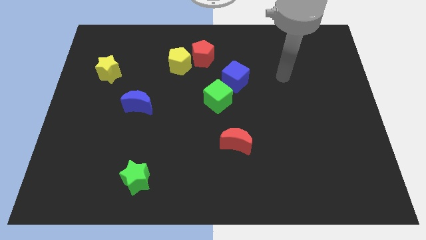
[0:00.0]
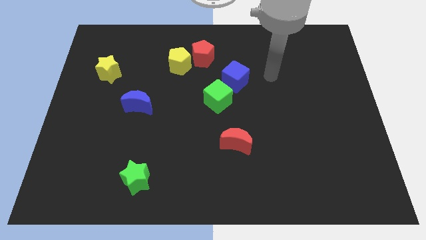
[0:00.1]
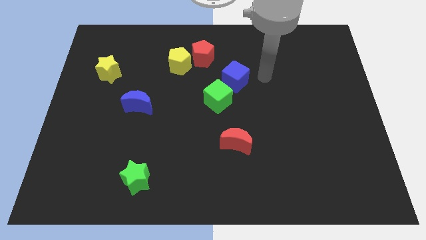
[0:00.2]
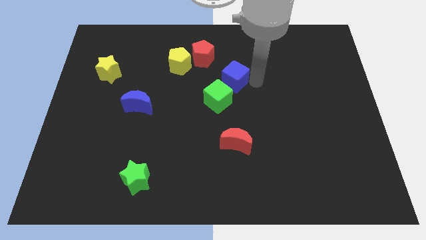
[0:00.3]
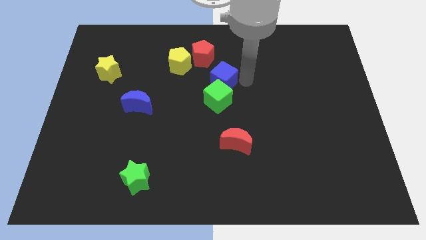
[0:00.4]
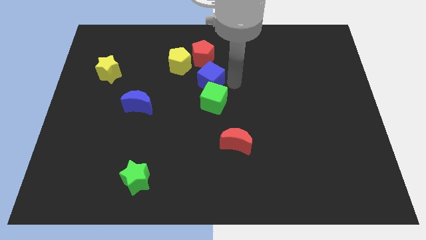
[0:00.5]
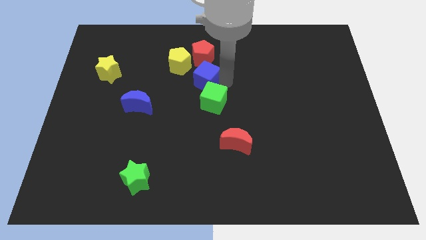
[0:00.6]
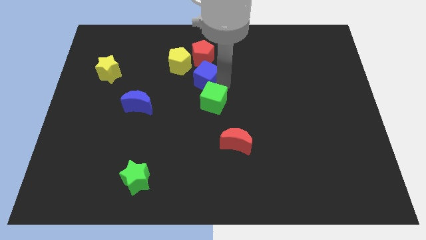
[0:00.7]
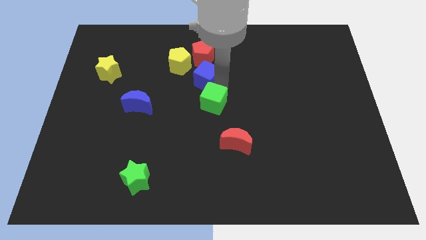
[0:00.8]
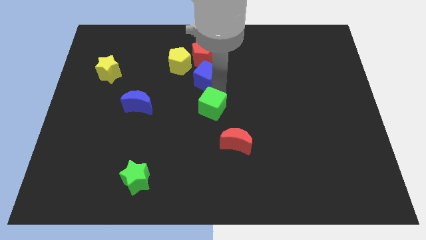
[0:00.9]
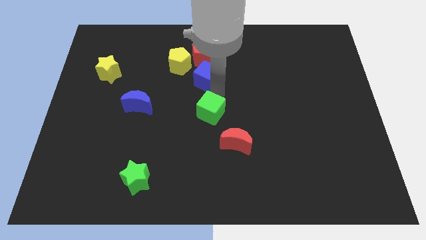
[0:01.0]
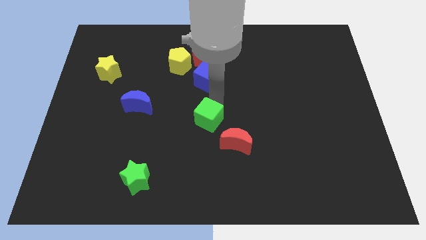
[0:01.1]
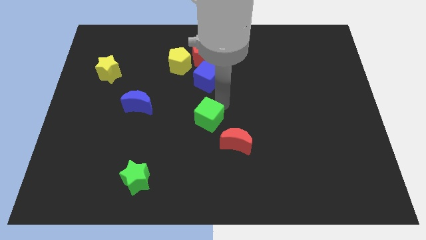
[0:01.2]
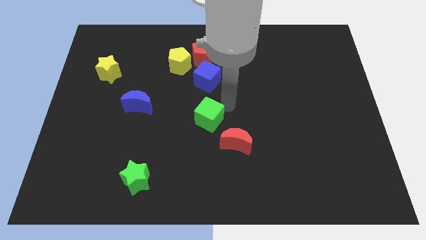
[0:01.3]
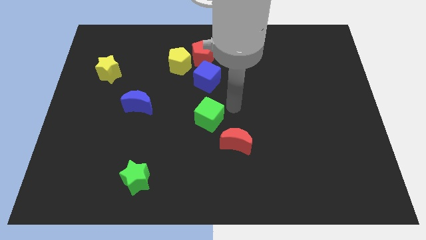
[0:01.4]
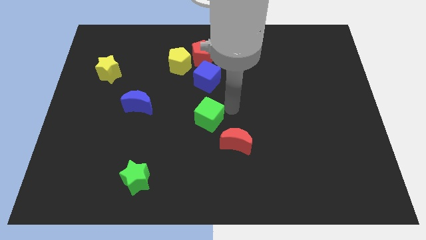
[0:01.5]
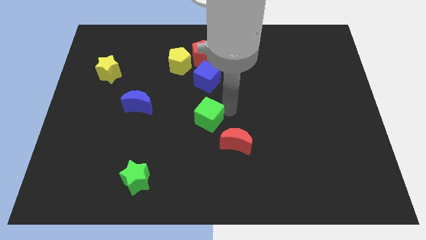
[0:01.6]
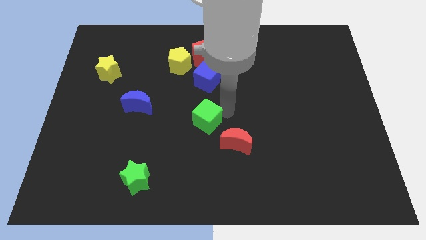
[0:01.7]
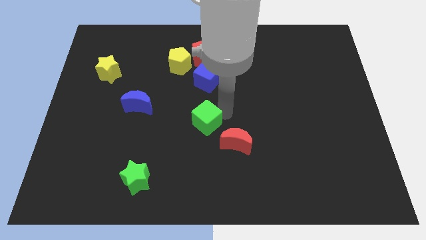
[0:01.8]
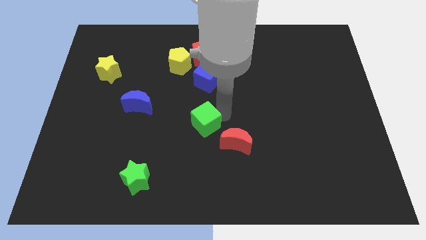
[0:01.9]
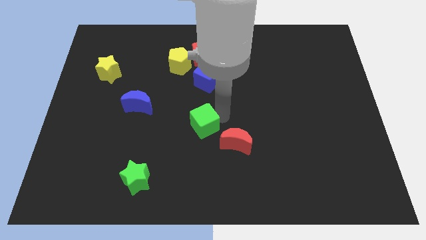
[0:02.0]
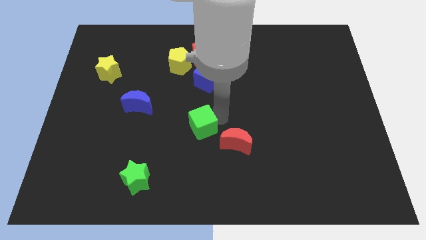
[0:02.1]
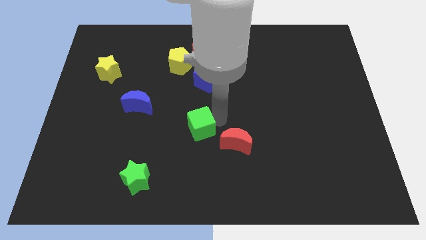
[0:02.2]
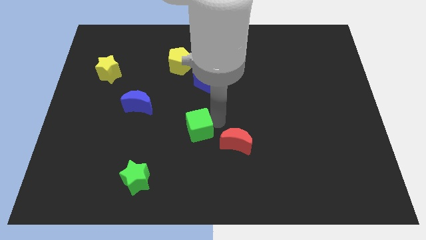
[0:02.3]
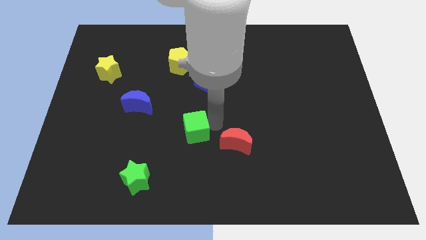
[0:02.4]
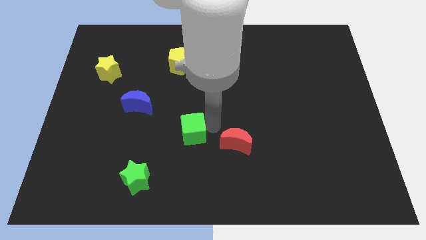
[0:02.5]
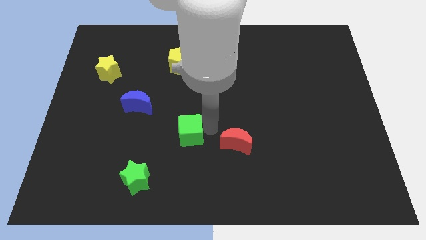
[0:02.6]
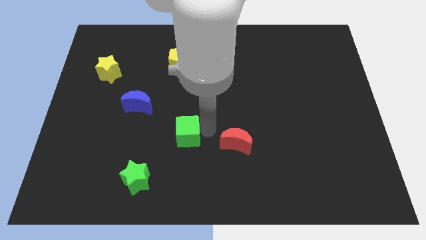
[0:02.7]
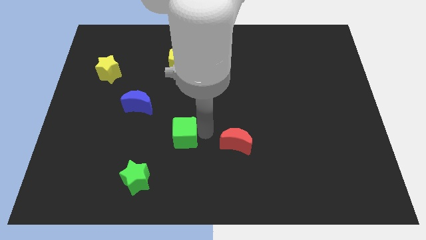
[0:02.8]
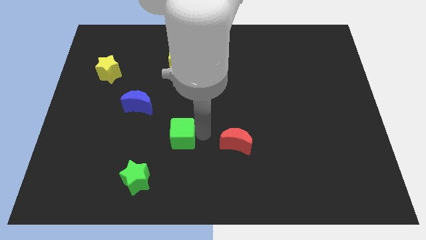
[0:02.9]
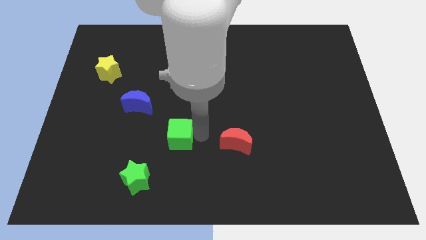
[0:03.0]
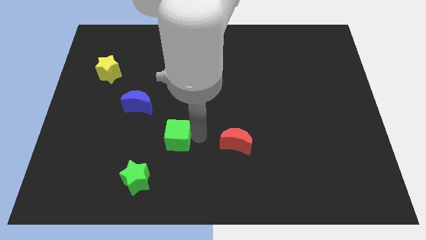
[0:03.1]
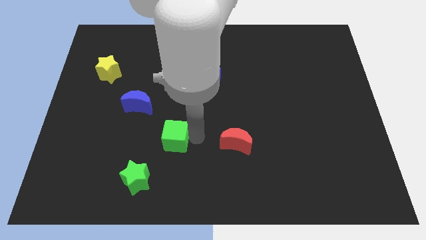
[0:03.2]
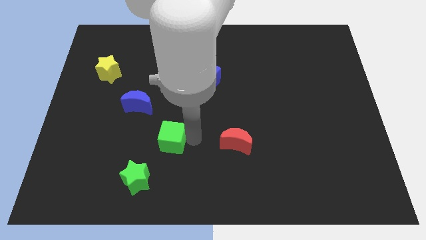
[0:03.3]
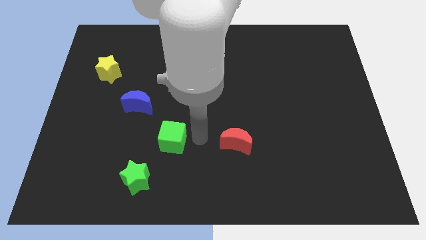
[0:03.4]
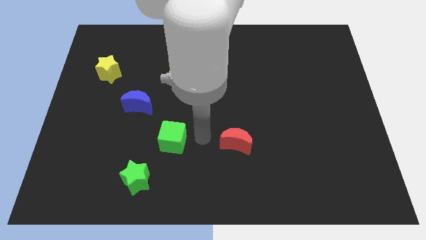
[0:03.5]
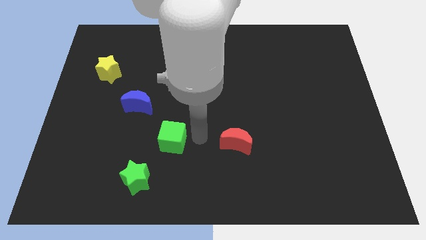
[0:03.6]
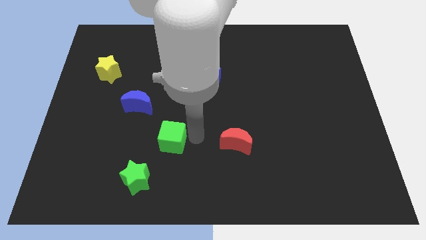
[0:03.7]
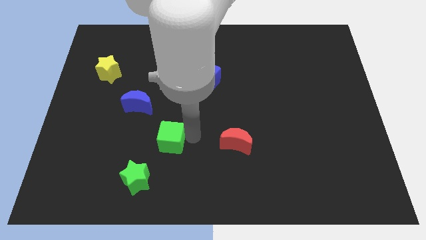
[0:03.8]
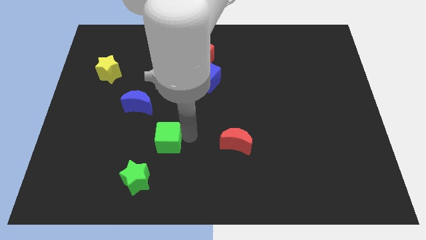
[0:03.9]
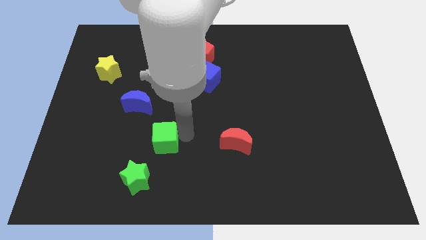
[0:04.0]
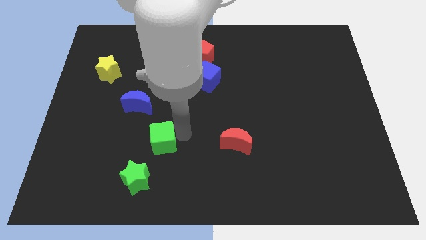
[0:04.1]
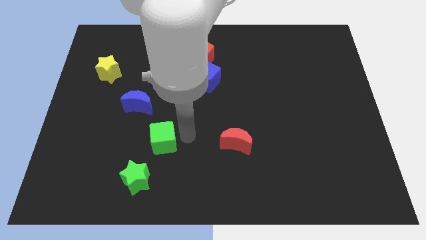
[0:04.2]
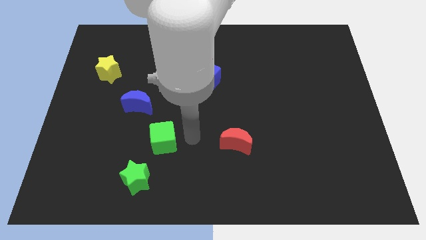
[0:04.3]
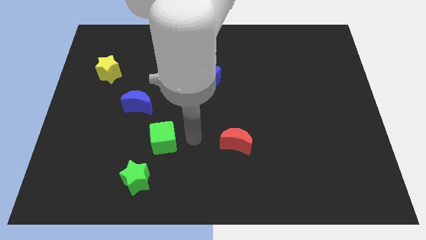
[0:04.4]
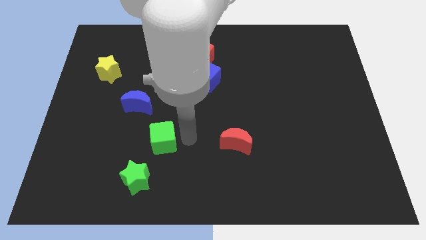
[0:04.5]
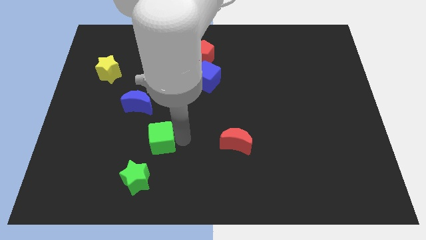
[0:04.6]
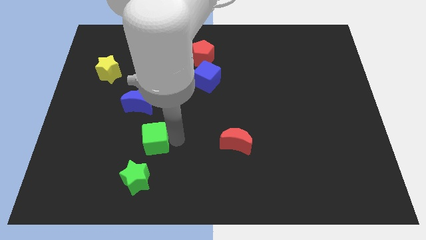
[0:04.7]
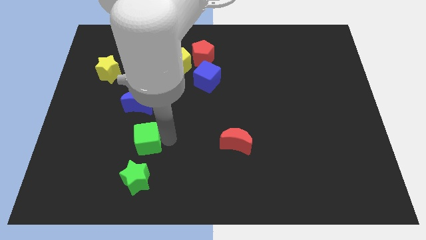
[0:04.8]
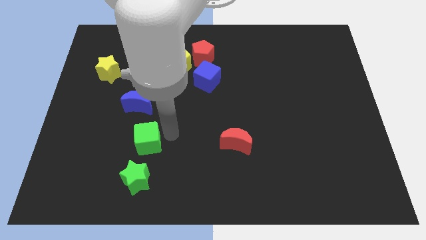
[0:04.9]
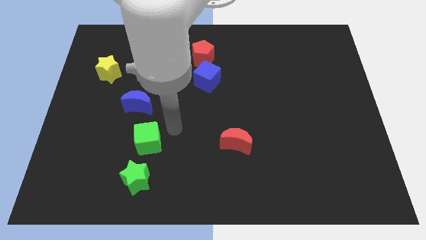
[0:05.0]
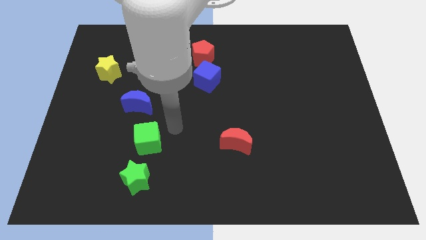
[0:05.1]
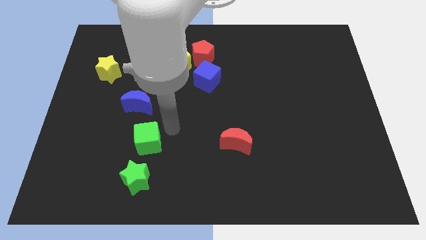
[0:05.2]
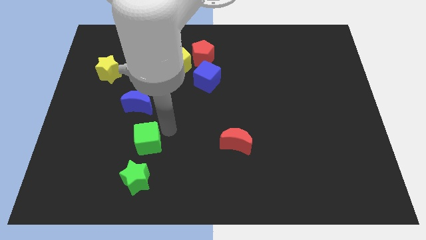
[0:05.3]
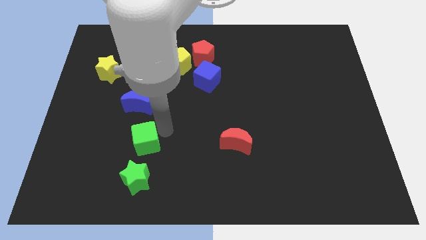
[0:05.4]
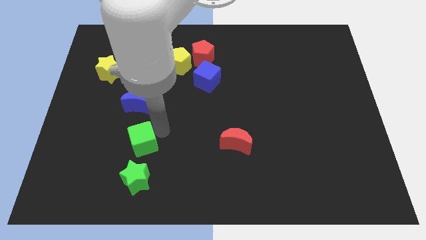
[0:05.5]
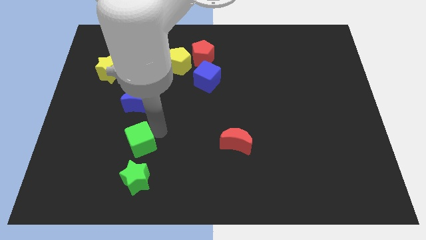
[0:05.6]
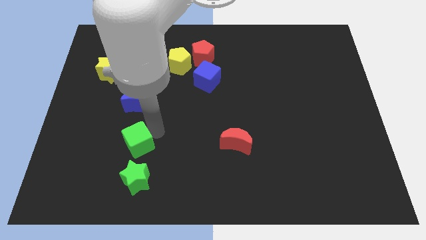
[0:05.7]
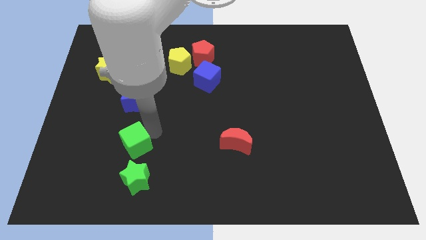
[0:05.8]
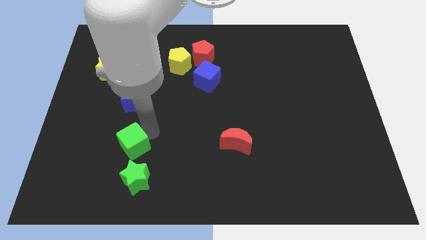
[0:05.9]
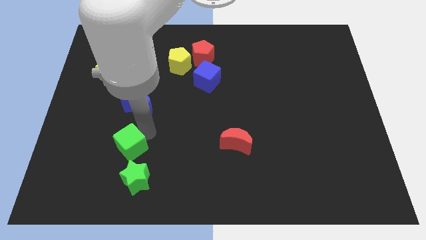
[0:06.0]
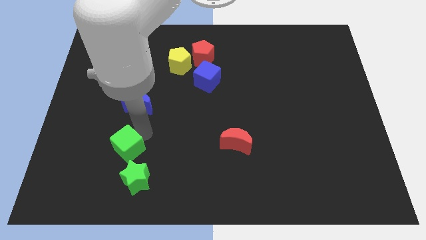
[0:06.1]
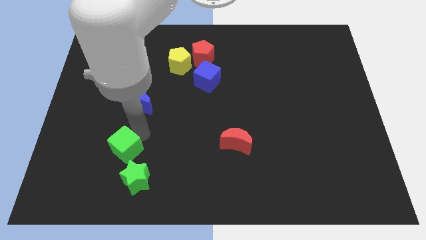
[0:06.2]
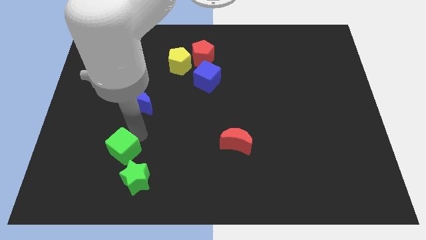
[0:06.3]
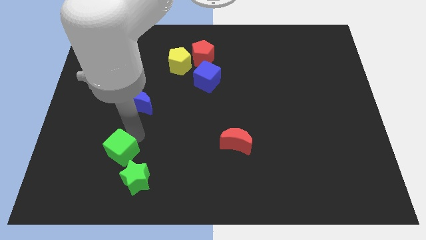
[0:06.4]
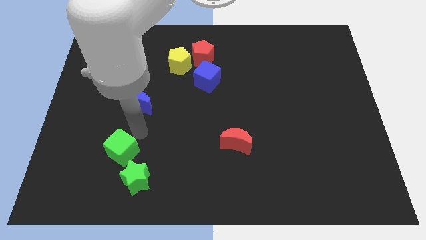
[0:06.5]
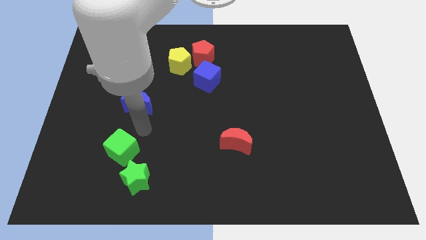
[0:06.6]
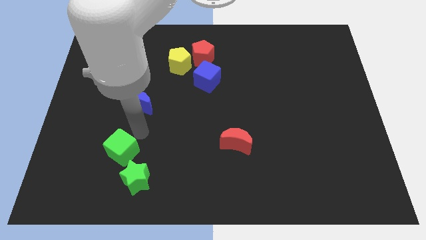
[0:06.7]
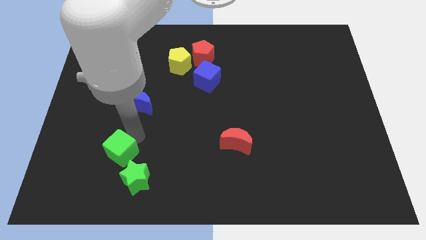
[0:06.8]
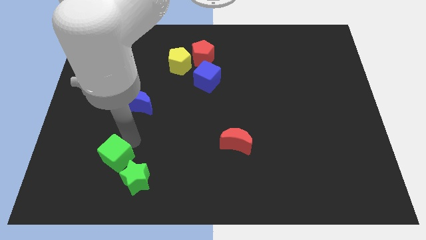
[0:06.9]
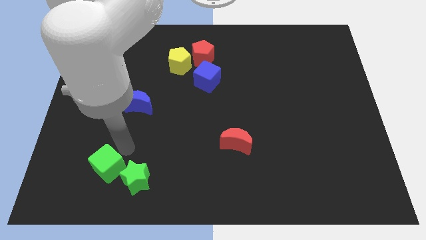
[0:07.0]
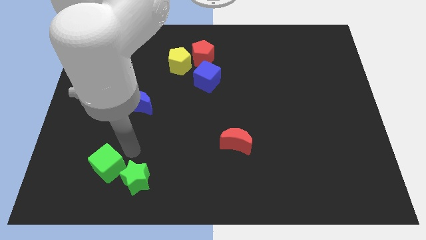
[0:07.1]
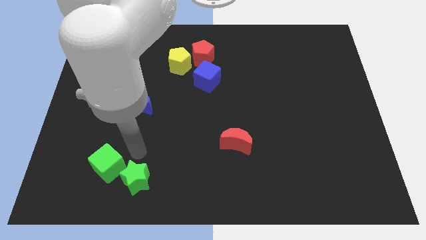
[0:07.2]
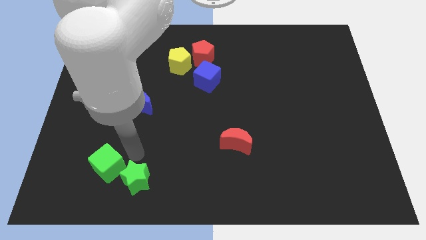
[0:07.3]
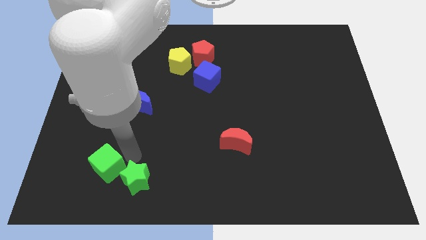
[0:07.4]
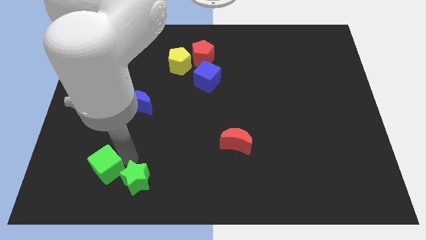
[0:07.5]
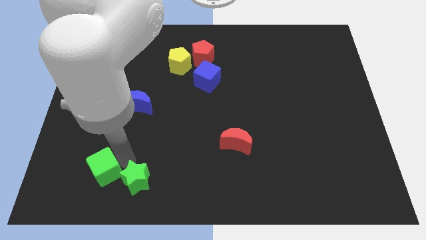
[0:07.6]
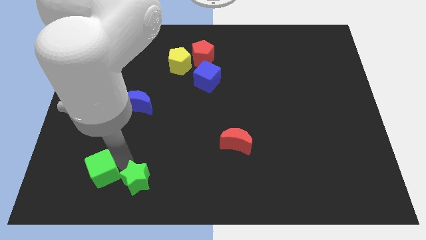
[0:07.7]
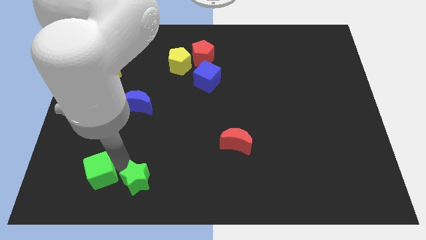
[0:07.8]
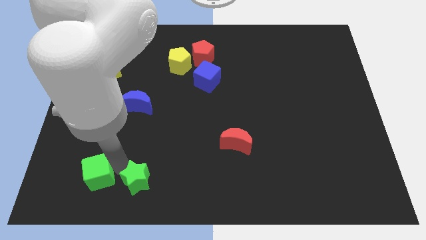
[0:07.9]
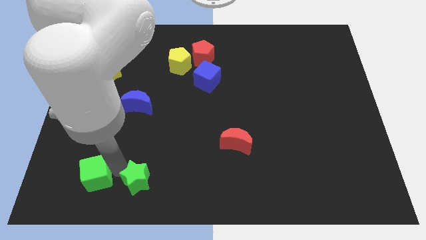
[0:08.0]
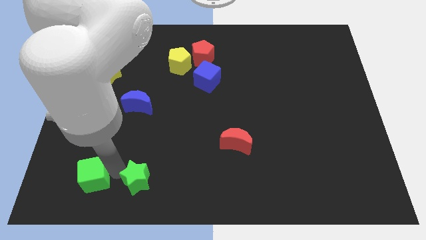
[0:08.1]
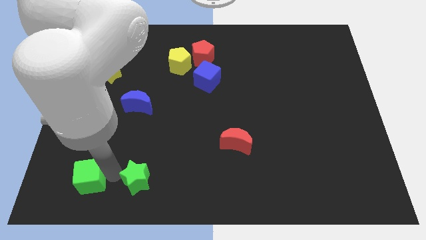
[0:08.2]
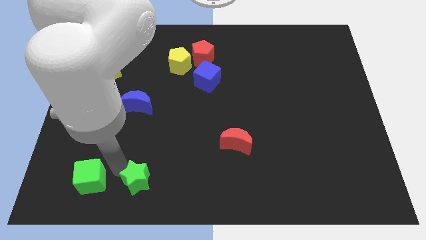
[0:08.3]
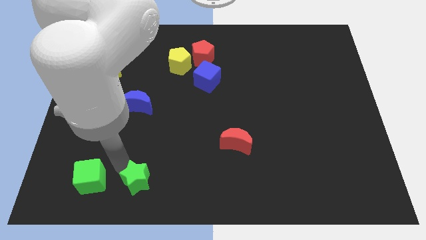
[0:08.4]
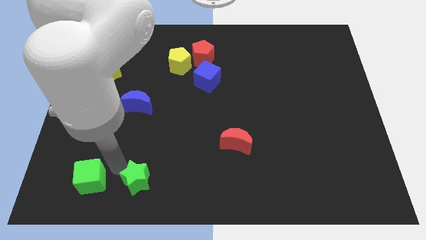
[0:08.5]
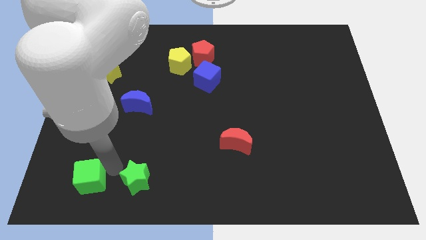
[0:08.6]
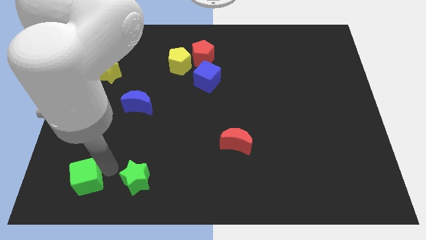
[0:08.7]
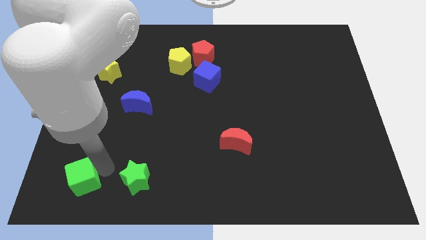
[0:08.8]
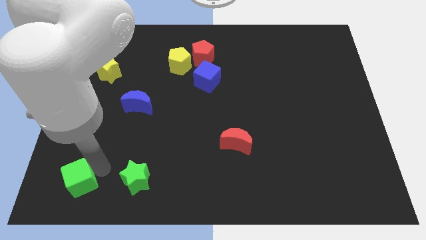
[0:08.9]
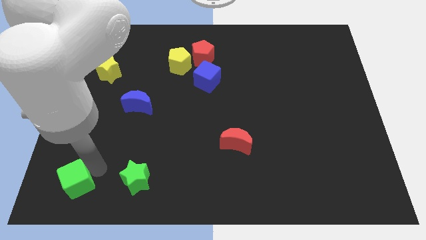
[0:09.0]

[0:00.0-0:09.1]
slide the green cube to the bottom left corner
